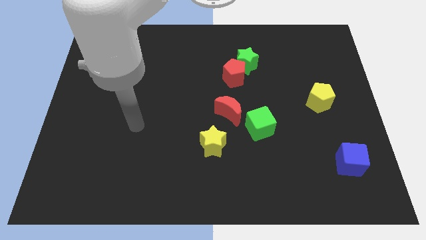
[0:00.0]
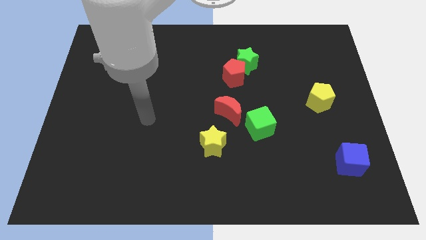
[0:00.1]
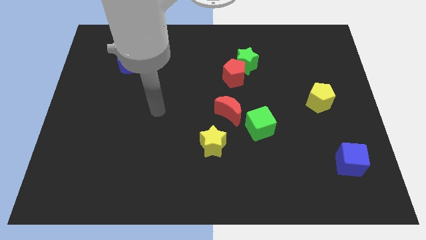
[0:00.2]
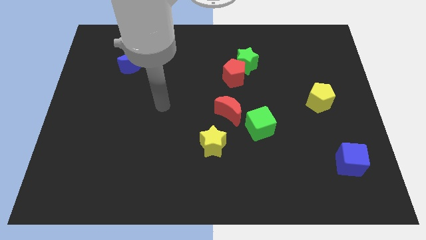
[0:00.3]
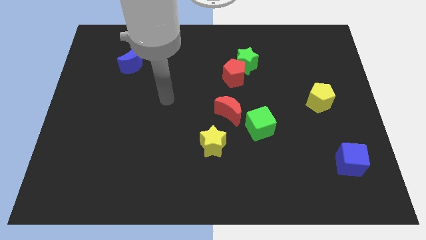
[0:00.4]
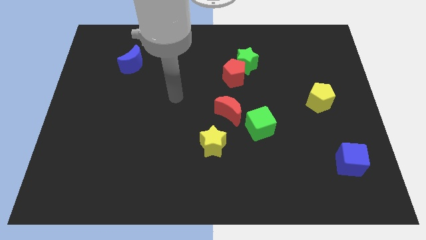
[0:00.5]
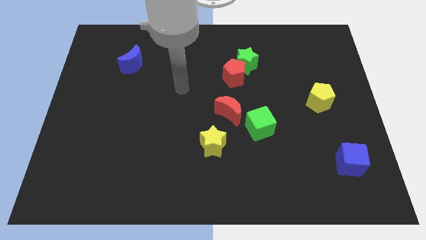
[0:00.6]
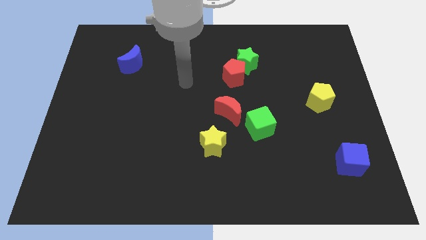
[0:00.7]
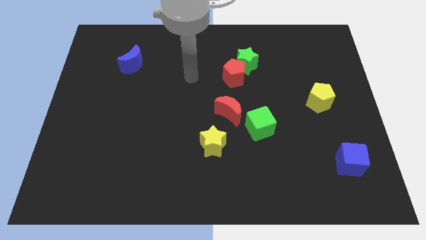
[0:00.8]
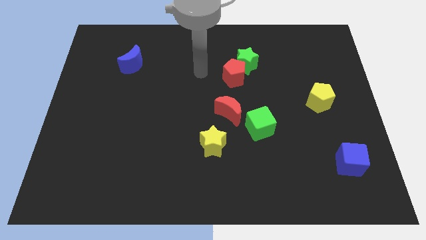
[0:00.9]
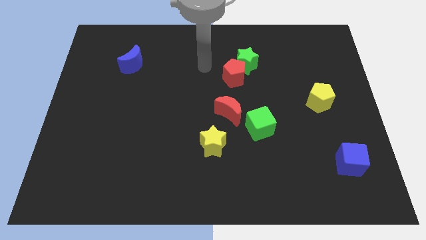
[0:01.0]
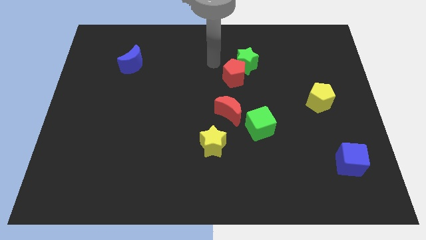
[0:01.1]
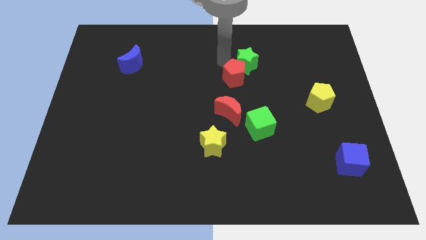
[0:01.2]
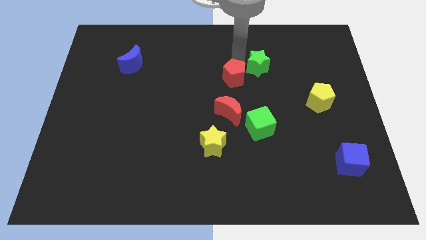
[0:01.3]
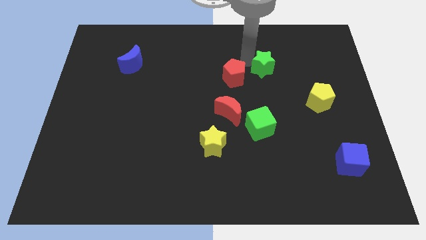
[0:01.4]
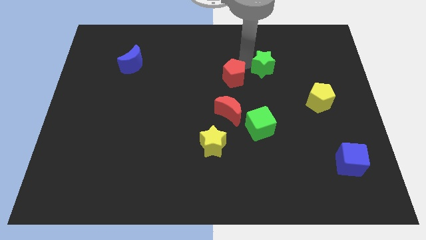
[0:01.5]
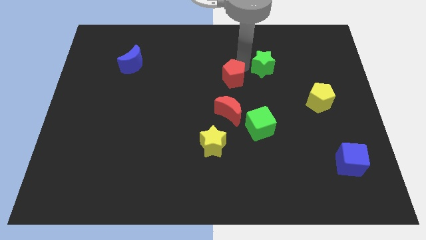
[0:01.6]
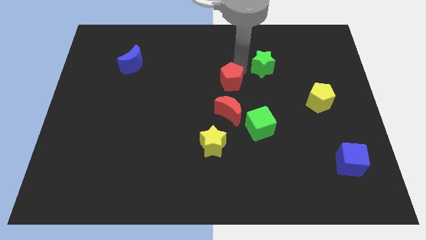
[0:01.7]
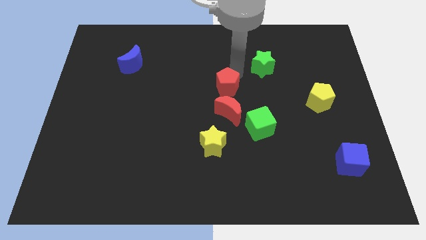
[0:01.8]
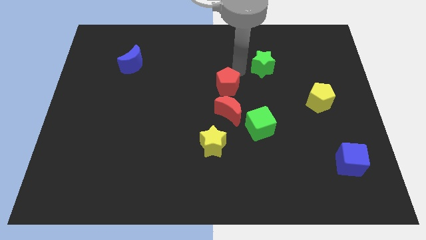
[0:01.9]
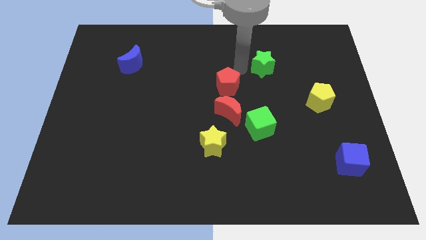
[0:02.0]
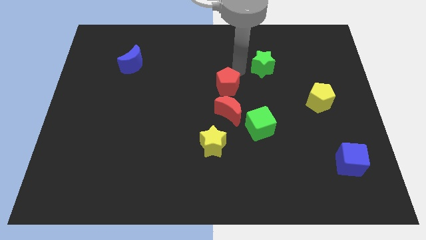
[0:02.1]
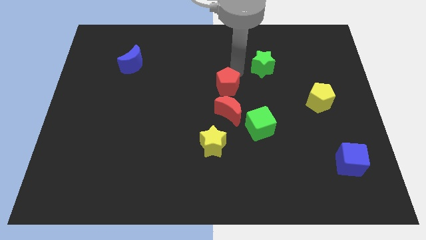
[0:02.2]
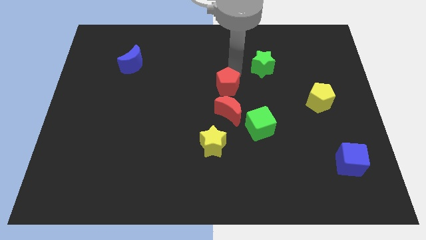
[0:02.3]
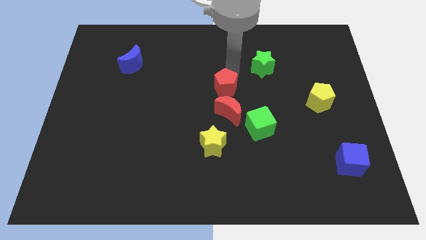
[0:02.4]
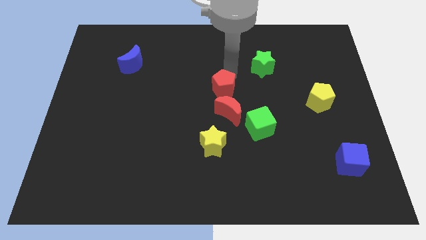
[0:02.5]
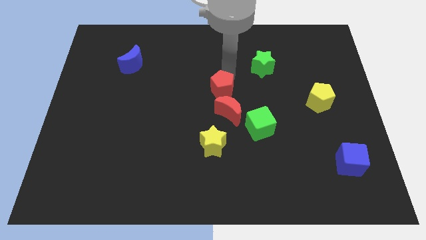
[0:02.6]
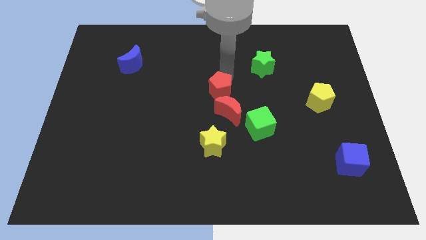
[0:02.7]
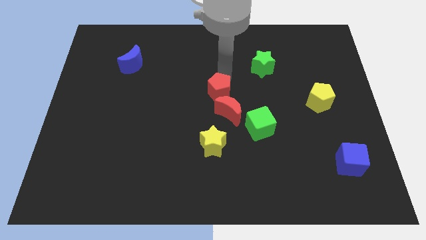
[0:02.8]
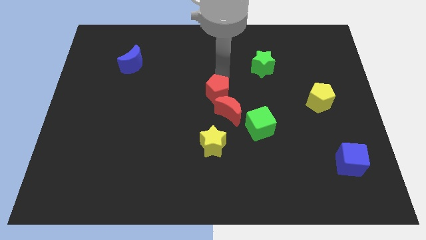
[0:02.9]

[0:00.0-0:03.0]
slide the red pentagon downwards and then left slightly

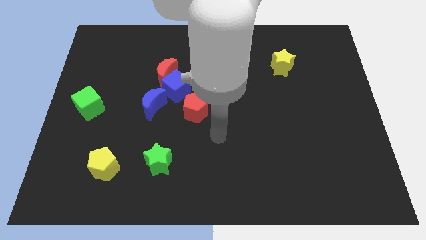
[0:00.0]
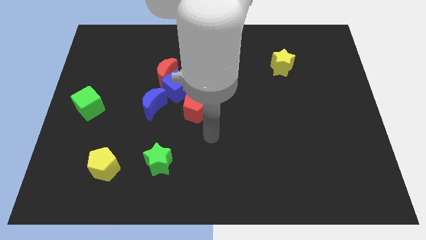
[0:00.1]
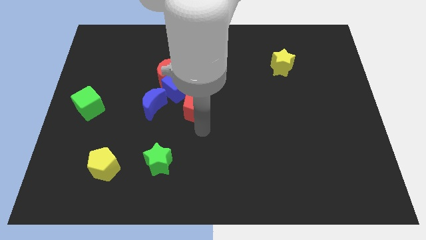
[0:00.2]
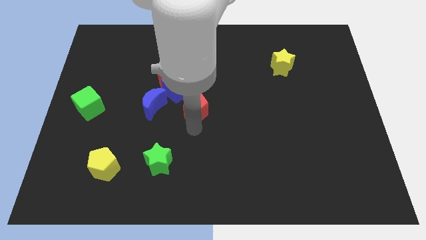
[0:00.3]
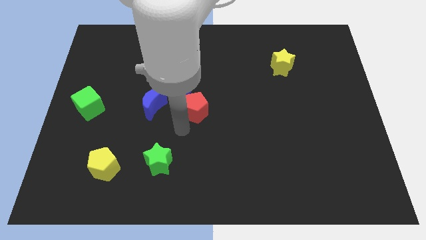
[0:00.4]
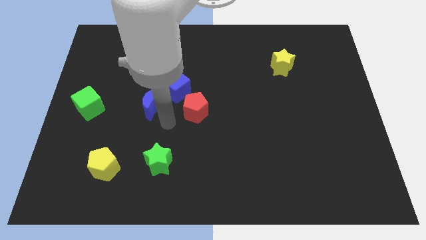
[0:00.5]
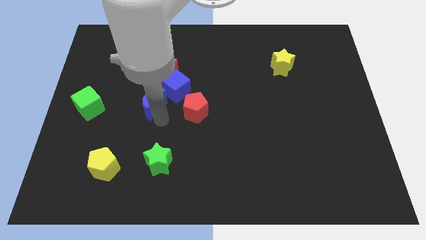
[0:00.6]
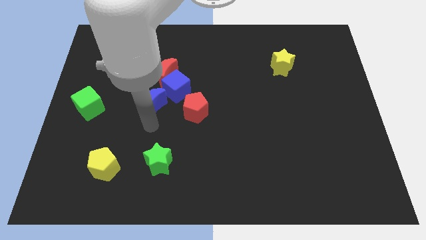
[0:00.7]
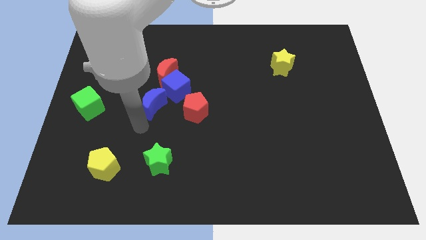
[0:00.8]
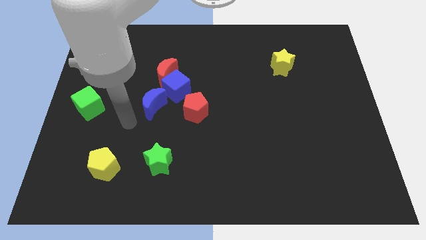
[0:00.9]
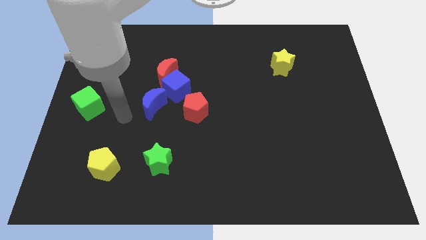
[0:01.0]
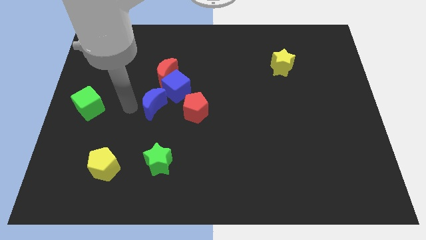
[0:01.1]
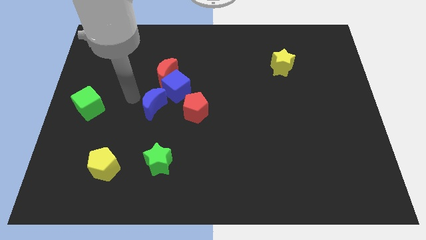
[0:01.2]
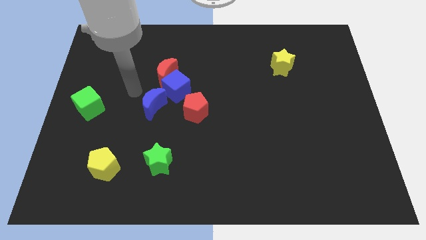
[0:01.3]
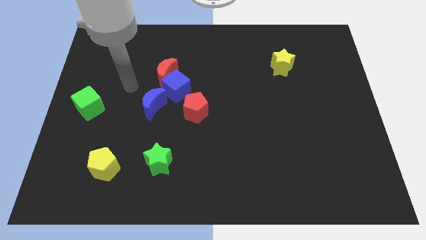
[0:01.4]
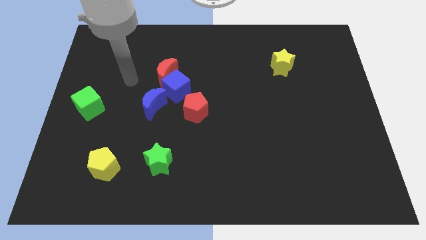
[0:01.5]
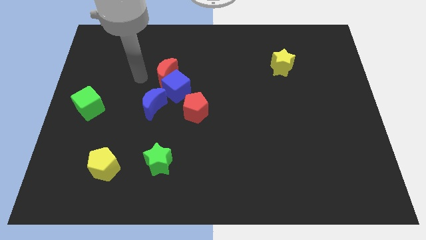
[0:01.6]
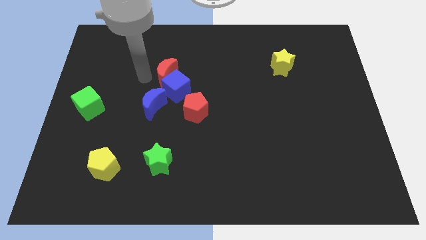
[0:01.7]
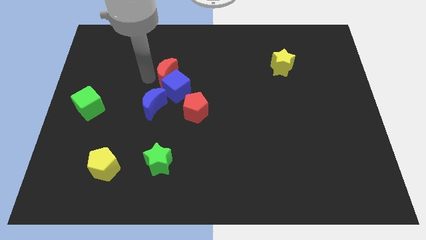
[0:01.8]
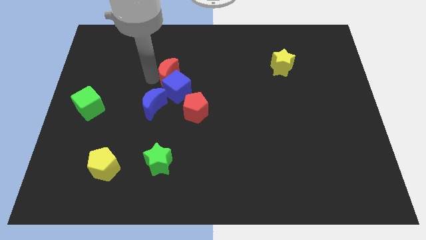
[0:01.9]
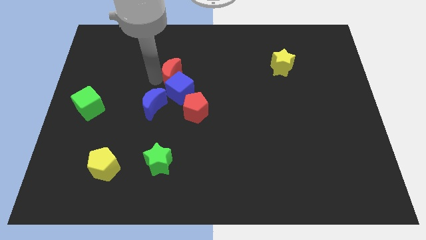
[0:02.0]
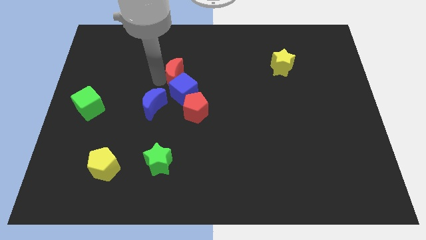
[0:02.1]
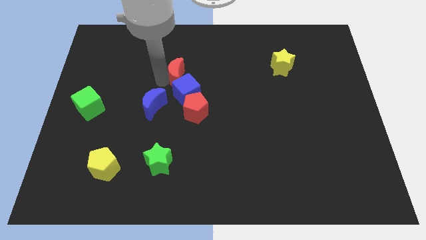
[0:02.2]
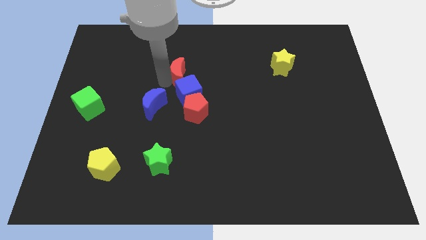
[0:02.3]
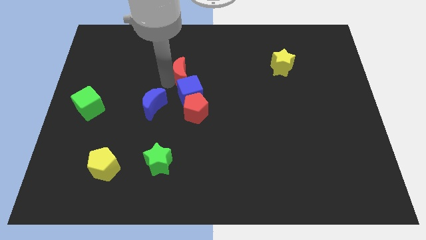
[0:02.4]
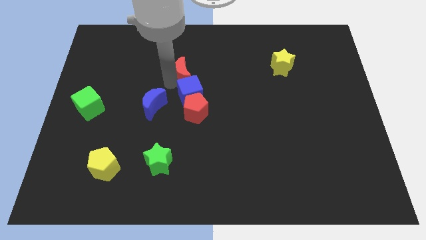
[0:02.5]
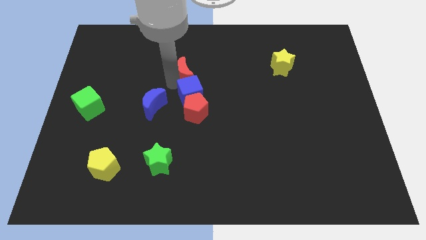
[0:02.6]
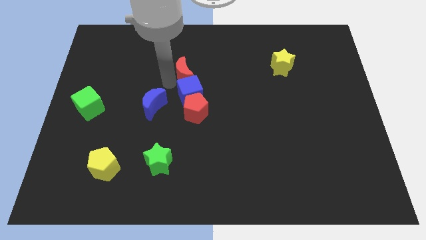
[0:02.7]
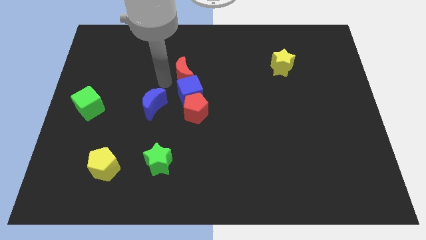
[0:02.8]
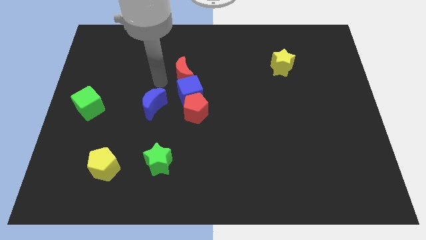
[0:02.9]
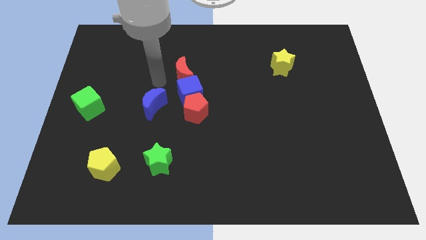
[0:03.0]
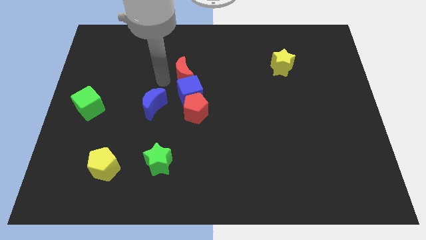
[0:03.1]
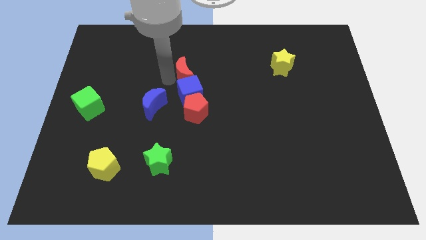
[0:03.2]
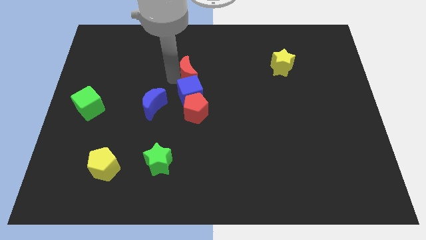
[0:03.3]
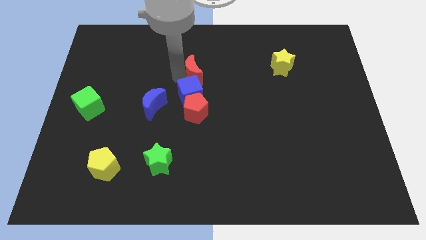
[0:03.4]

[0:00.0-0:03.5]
slightly move the red moon right

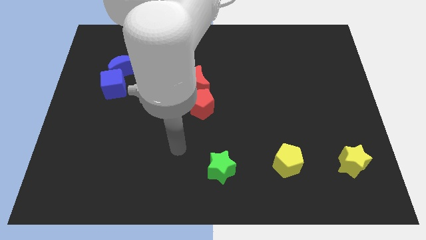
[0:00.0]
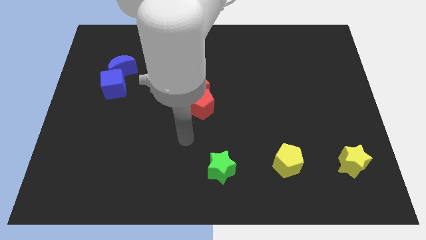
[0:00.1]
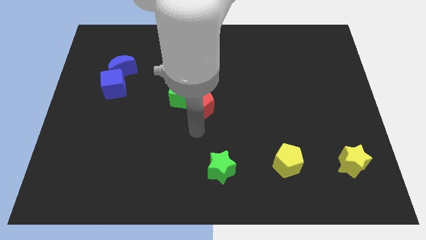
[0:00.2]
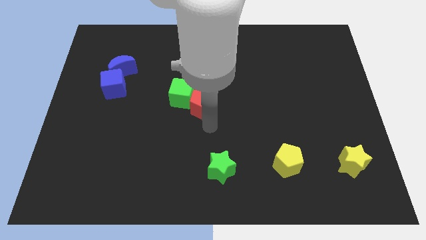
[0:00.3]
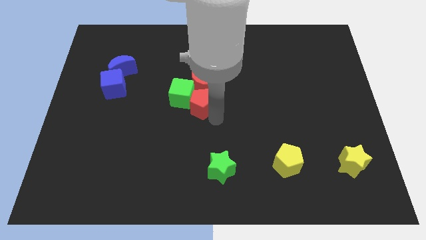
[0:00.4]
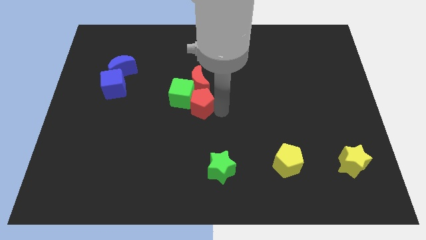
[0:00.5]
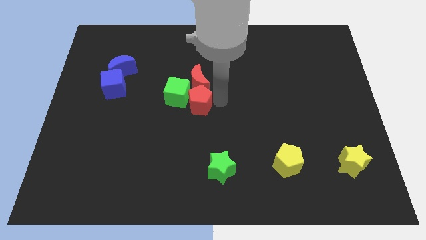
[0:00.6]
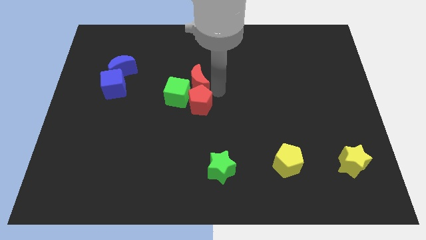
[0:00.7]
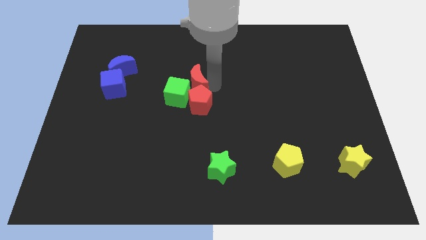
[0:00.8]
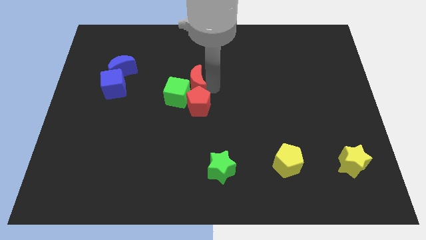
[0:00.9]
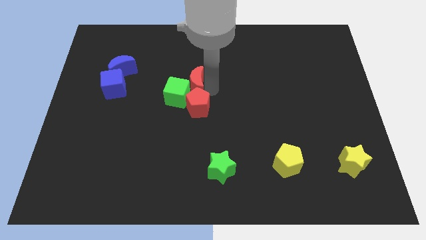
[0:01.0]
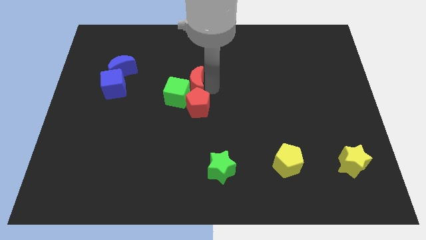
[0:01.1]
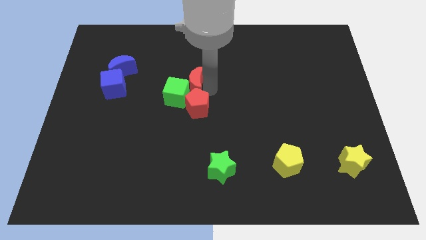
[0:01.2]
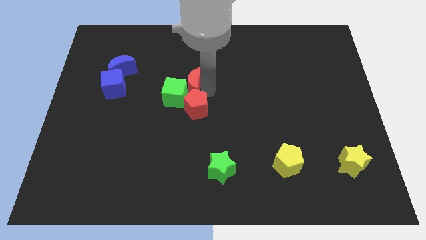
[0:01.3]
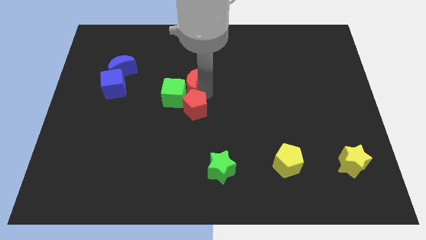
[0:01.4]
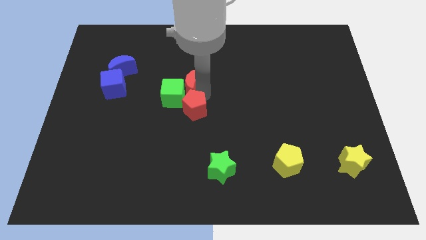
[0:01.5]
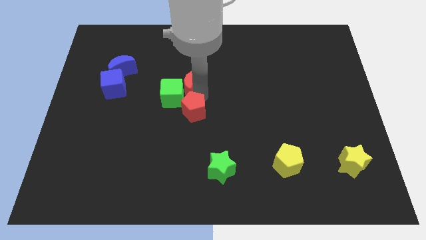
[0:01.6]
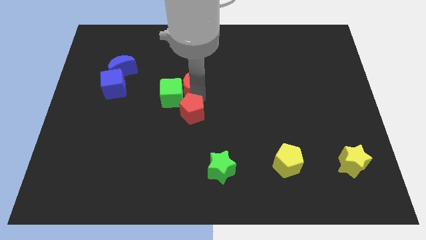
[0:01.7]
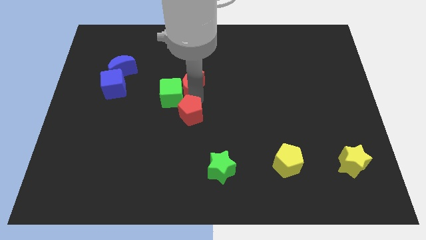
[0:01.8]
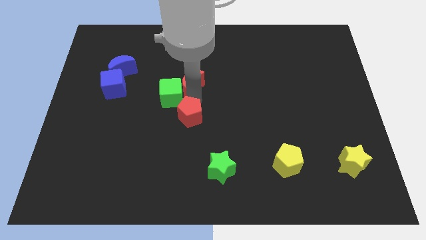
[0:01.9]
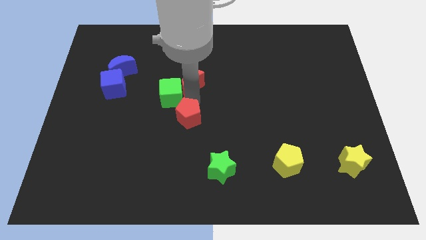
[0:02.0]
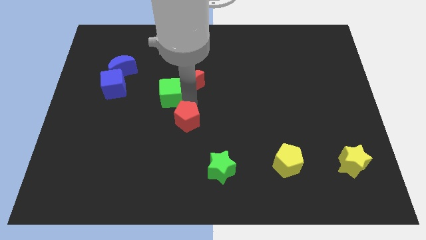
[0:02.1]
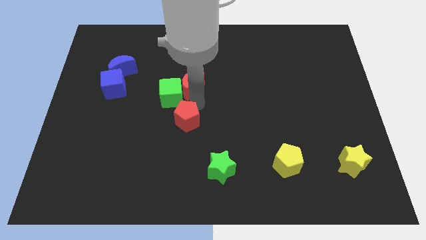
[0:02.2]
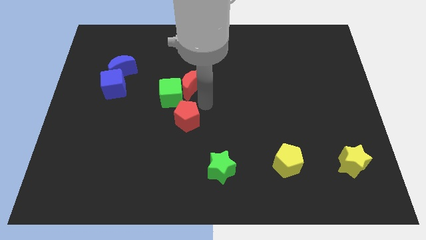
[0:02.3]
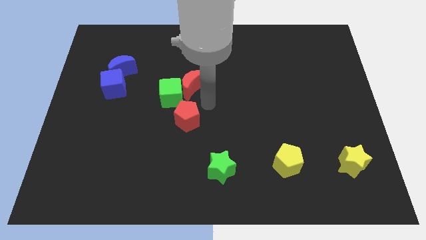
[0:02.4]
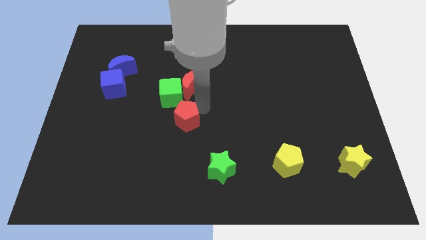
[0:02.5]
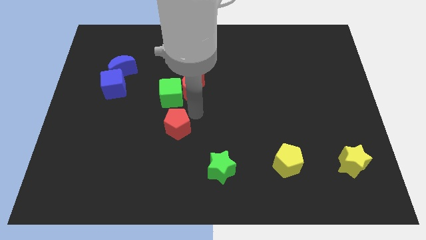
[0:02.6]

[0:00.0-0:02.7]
push the red pentagon a bit downwards and to the left diagonally
